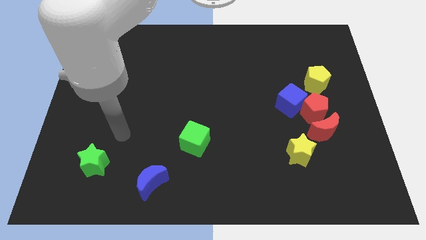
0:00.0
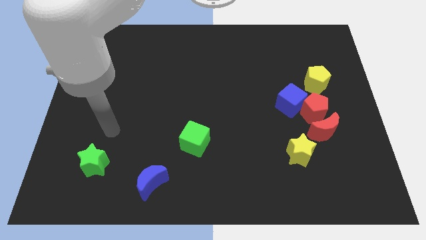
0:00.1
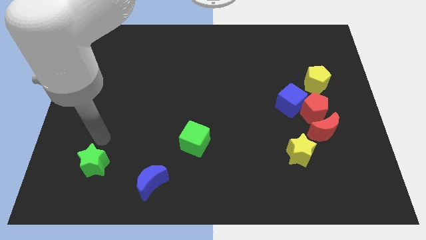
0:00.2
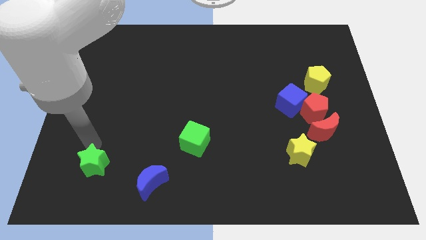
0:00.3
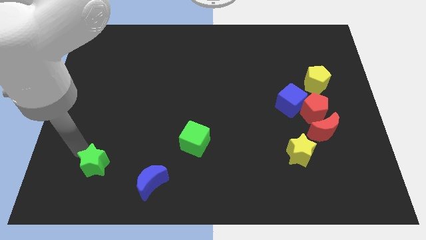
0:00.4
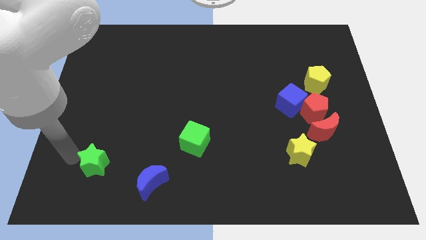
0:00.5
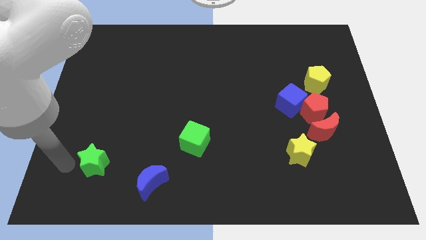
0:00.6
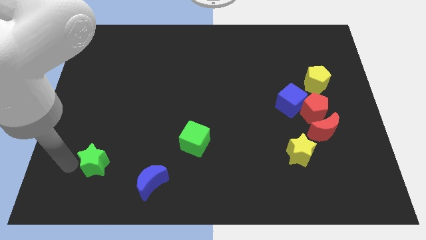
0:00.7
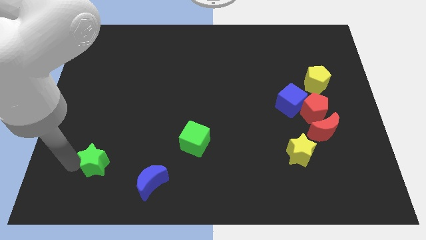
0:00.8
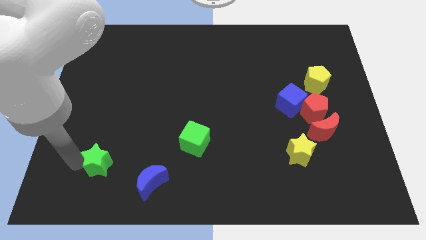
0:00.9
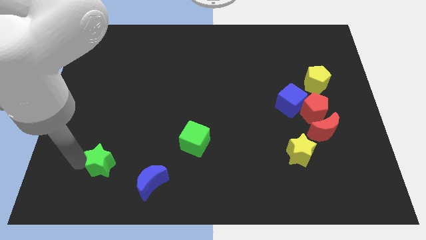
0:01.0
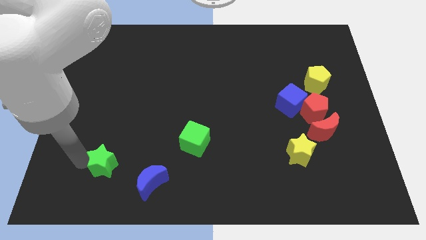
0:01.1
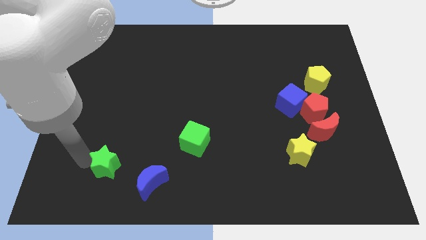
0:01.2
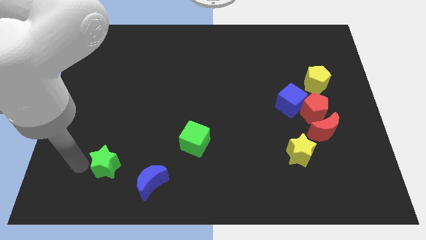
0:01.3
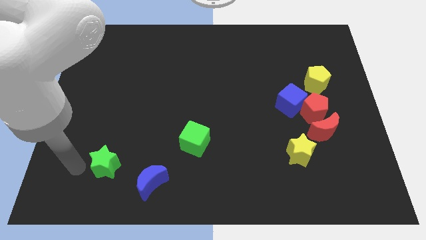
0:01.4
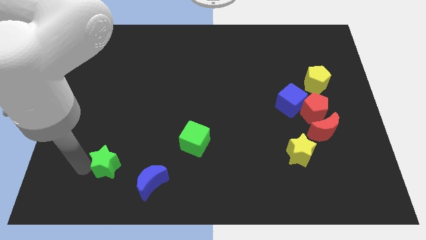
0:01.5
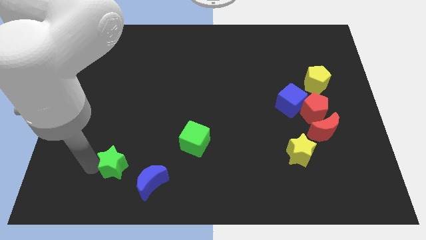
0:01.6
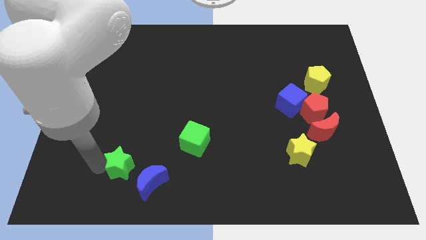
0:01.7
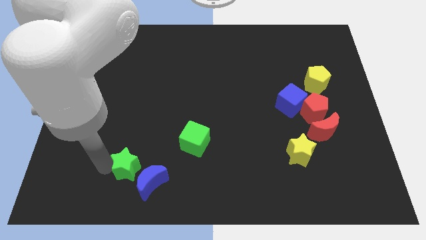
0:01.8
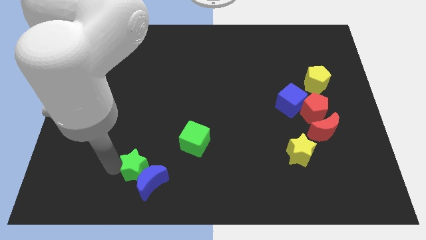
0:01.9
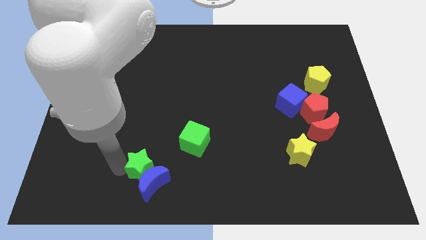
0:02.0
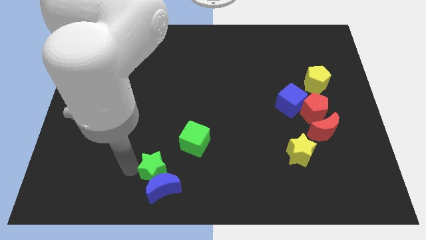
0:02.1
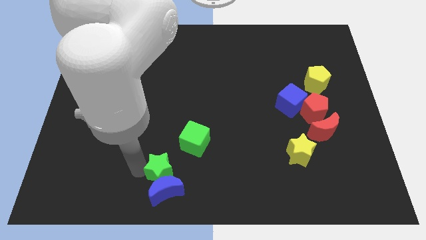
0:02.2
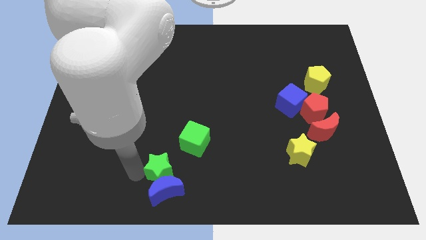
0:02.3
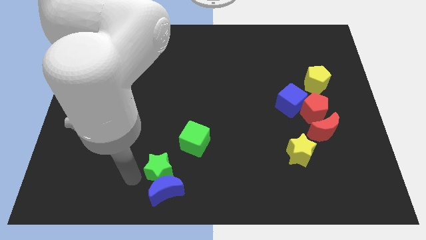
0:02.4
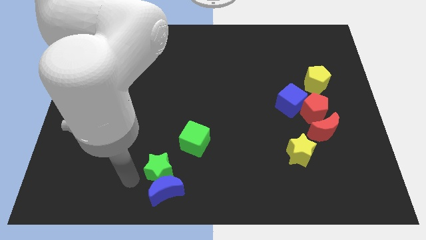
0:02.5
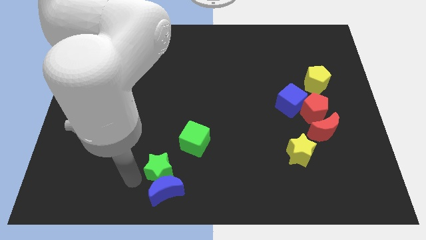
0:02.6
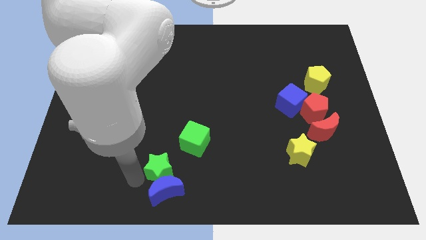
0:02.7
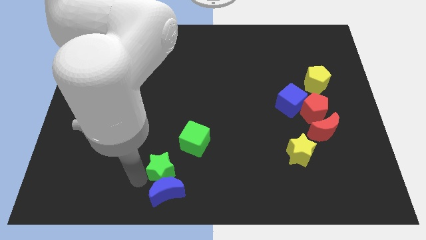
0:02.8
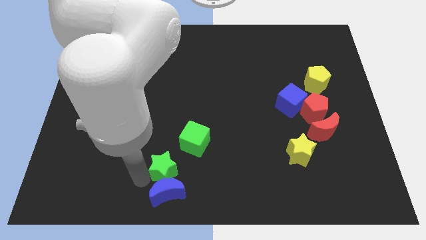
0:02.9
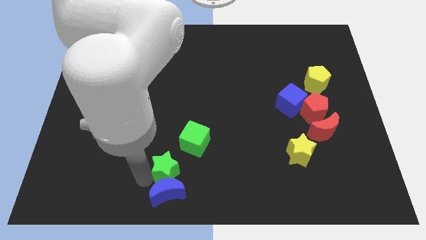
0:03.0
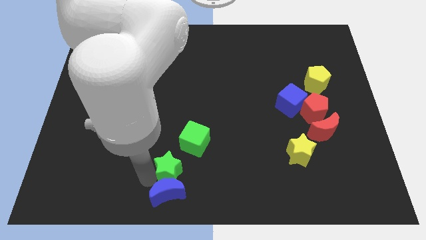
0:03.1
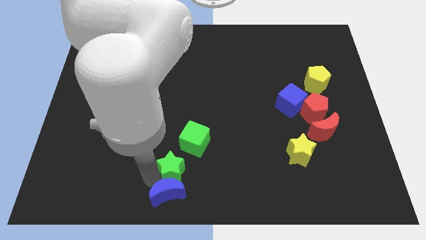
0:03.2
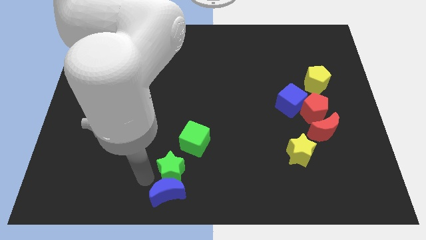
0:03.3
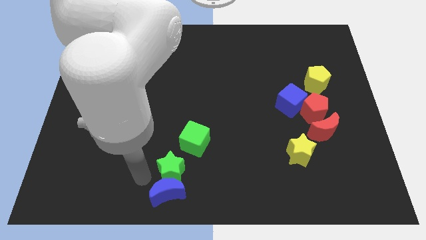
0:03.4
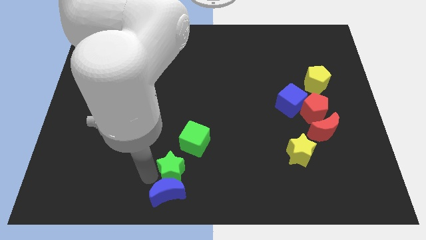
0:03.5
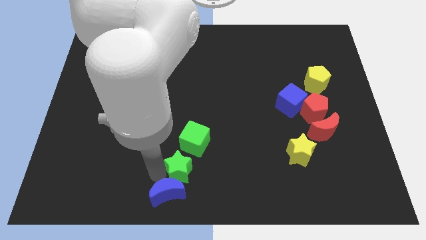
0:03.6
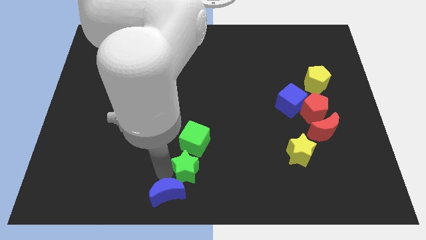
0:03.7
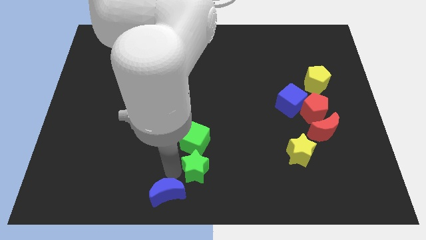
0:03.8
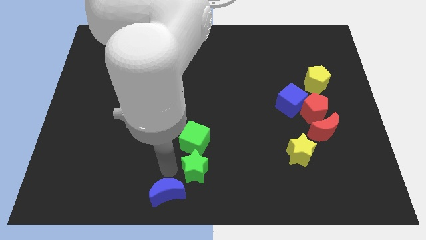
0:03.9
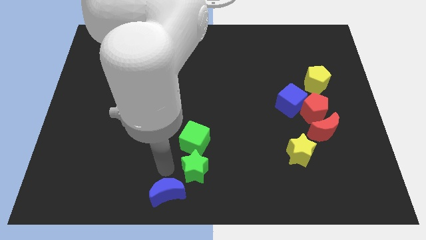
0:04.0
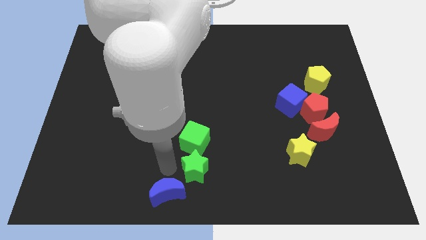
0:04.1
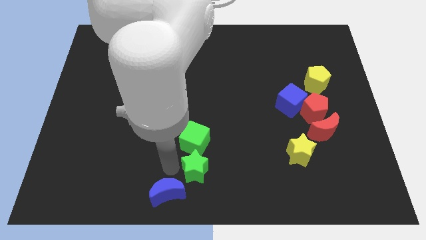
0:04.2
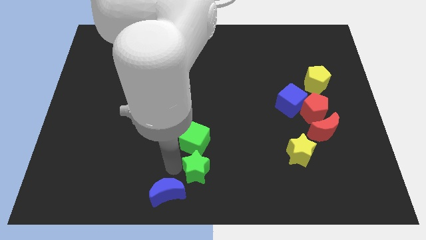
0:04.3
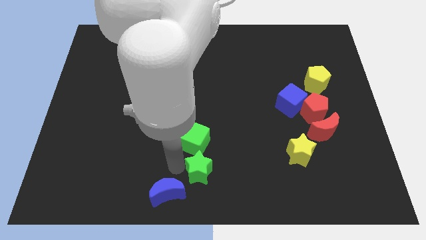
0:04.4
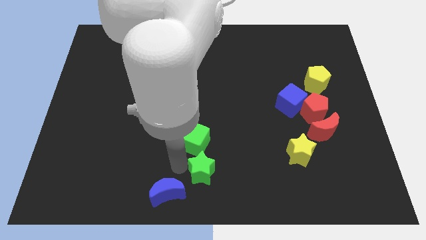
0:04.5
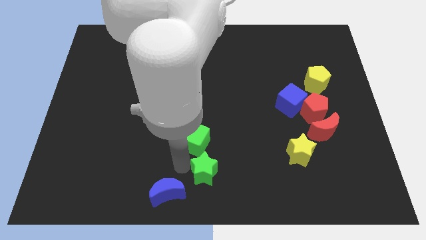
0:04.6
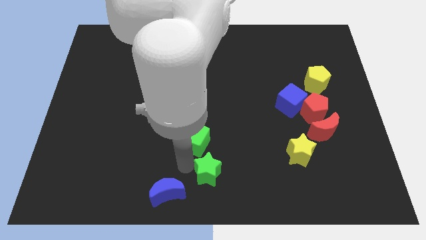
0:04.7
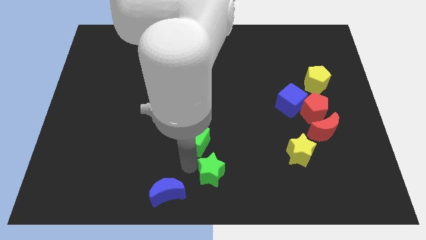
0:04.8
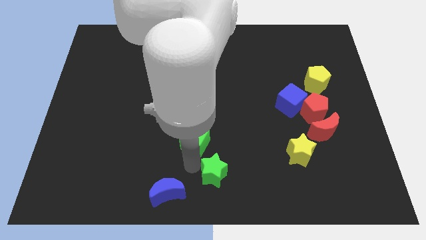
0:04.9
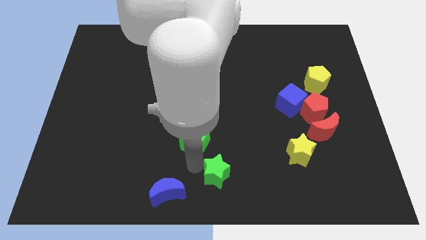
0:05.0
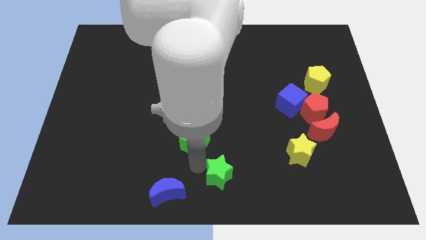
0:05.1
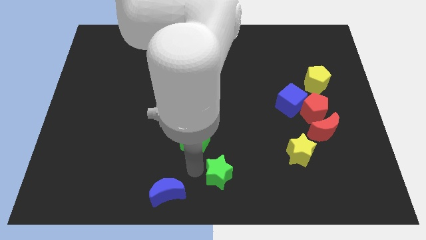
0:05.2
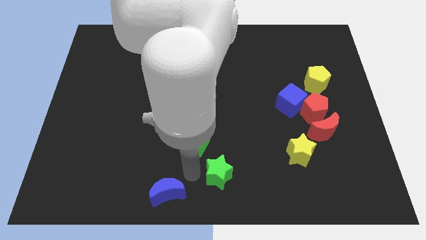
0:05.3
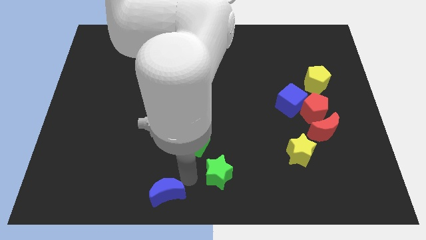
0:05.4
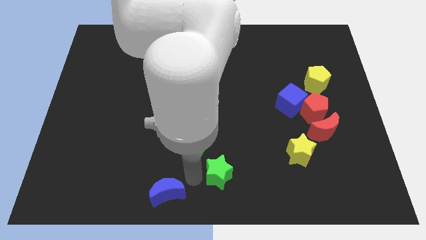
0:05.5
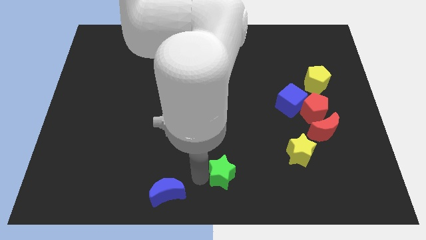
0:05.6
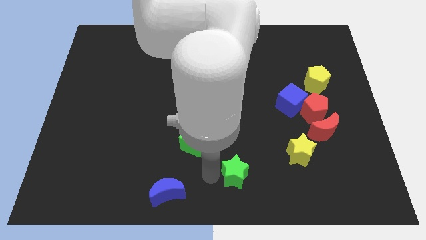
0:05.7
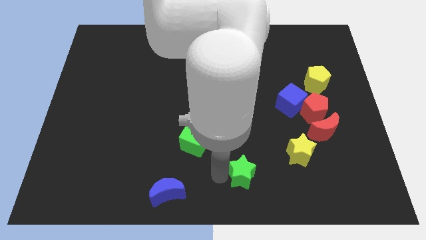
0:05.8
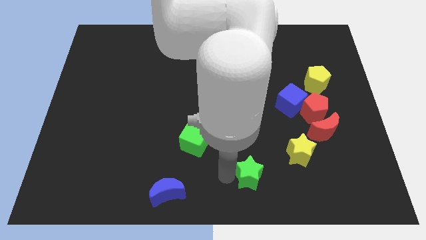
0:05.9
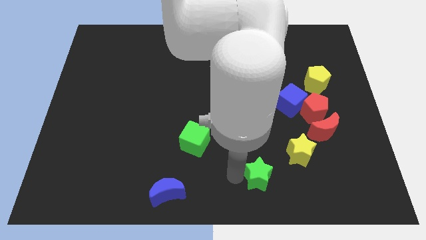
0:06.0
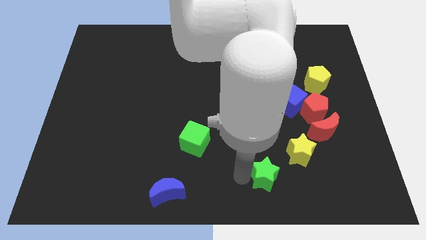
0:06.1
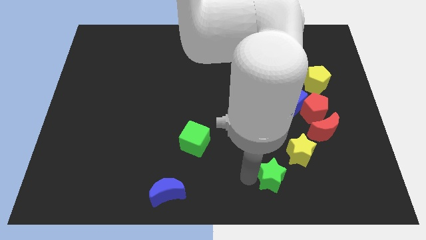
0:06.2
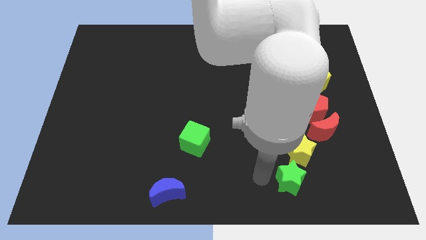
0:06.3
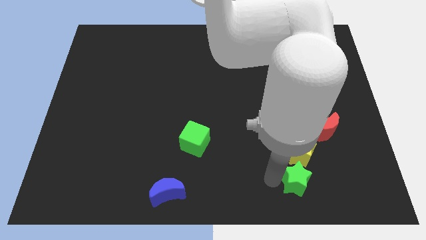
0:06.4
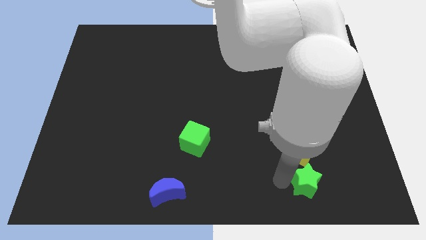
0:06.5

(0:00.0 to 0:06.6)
slide the green star to the bottom right of the yellow star
